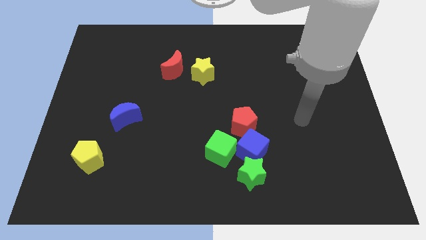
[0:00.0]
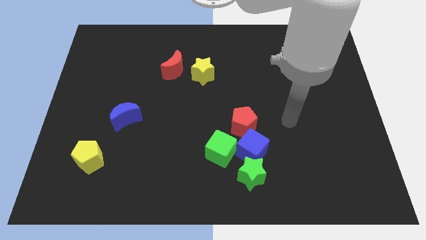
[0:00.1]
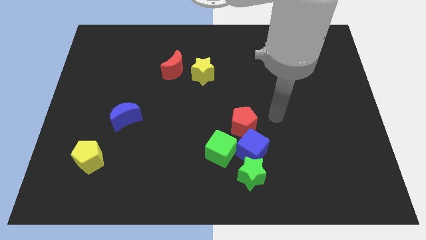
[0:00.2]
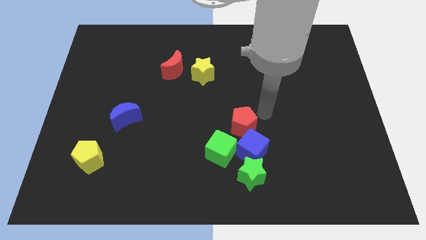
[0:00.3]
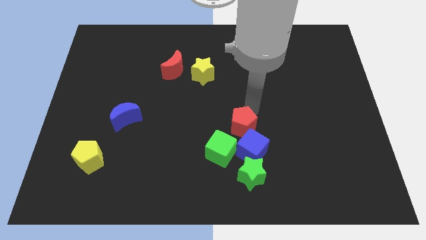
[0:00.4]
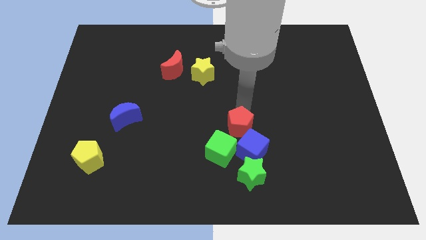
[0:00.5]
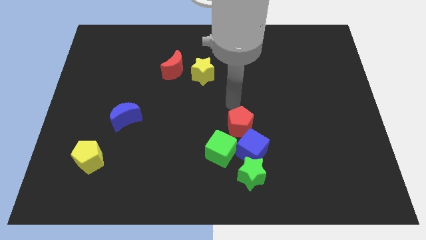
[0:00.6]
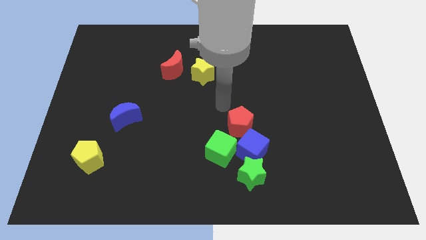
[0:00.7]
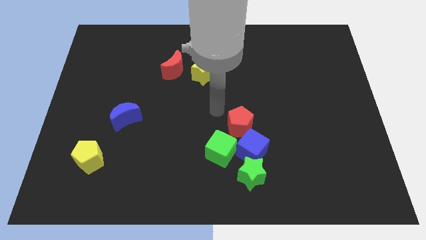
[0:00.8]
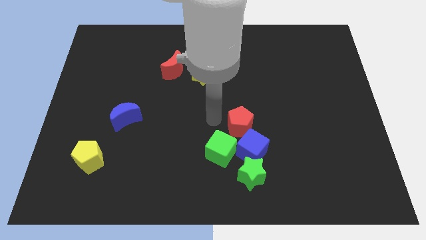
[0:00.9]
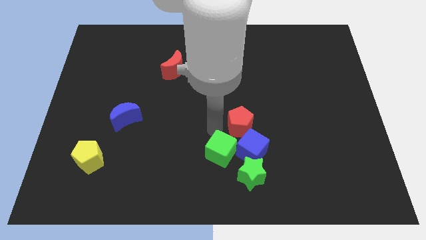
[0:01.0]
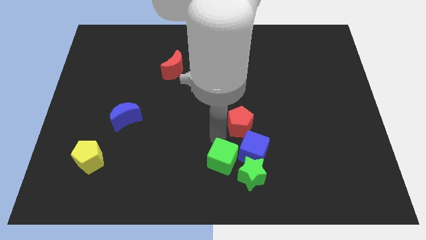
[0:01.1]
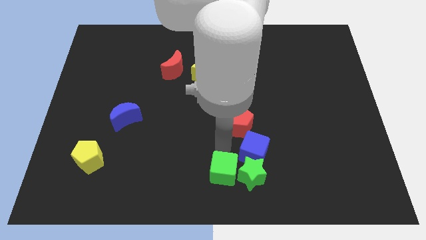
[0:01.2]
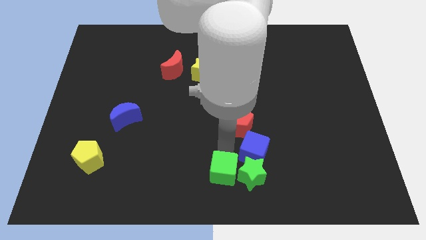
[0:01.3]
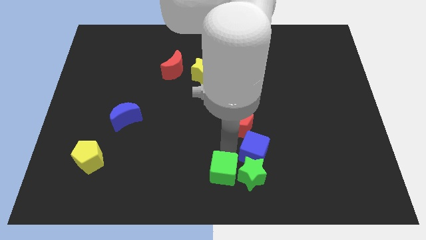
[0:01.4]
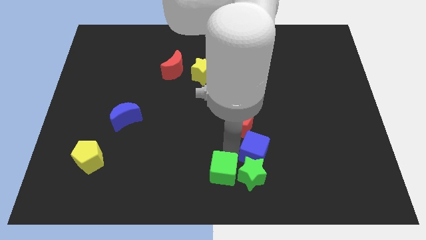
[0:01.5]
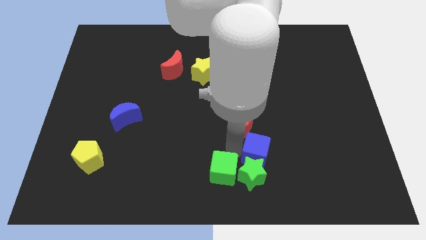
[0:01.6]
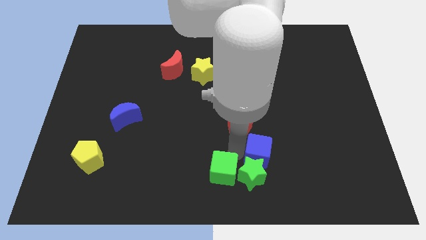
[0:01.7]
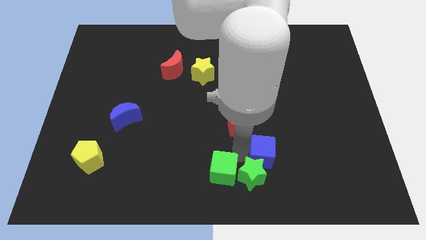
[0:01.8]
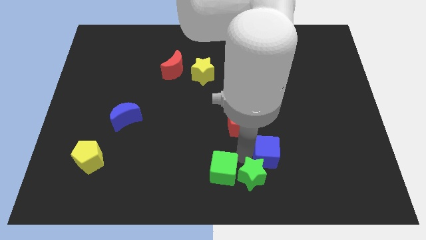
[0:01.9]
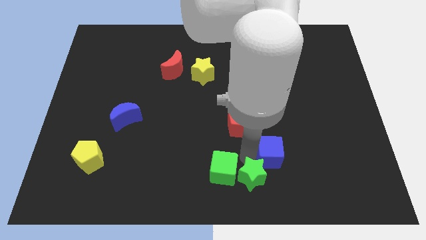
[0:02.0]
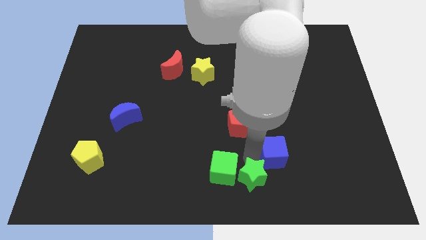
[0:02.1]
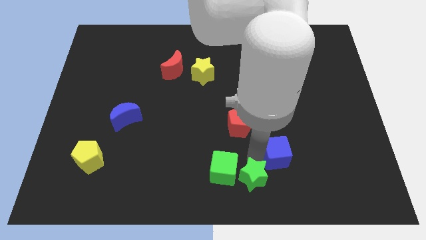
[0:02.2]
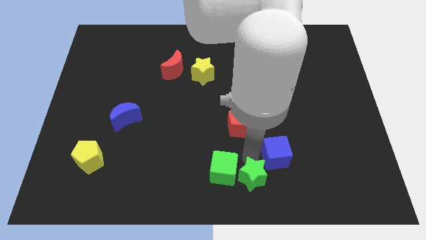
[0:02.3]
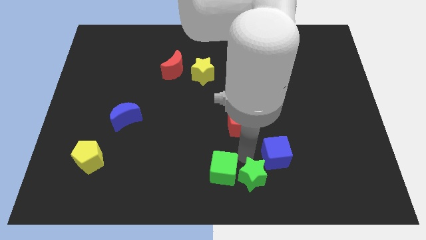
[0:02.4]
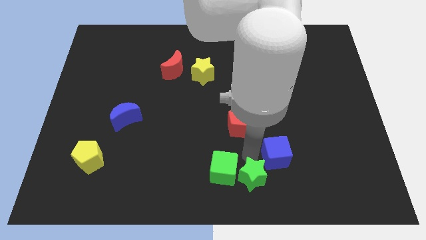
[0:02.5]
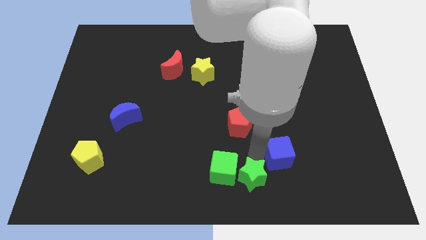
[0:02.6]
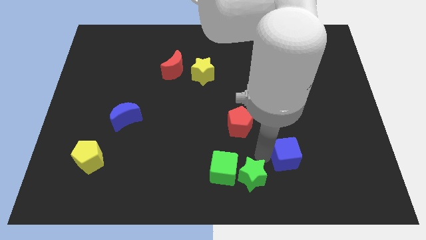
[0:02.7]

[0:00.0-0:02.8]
separate the blue cube from the clump

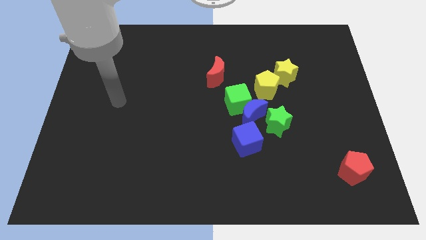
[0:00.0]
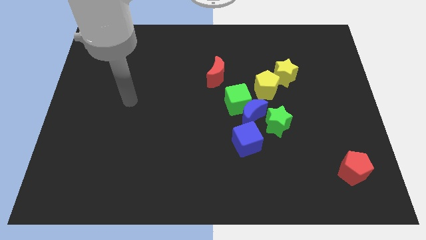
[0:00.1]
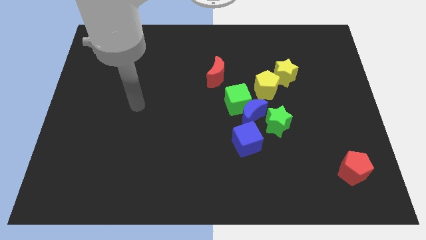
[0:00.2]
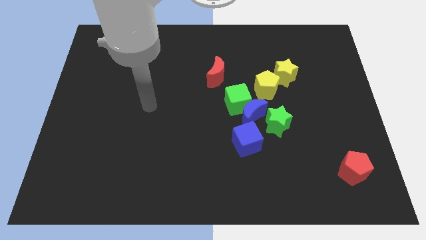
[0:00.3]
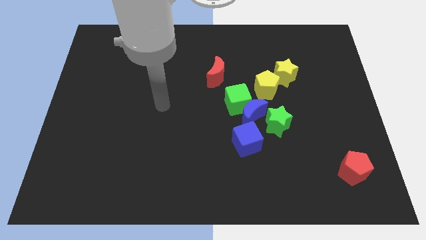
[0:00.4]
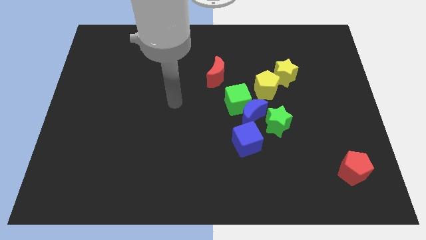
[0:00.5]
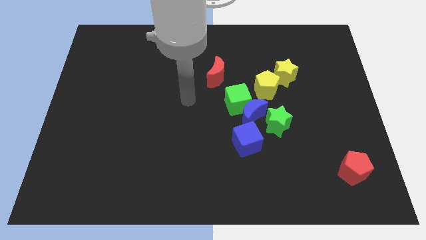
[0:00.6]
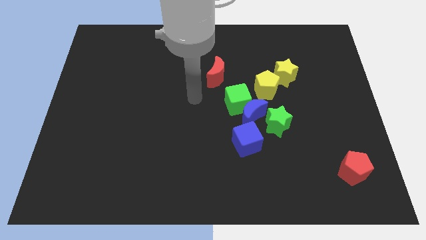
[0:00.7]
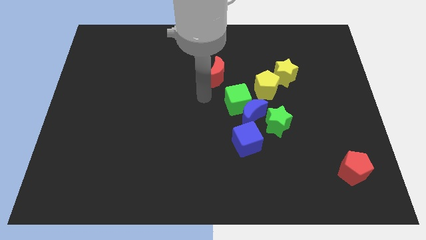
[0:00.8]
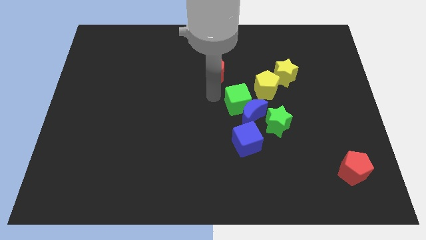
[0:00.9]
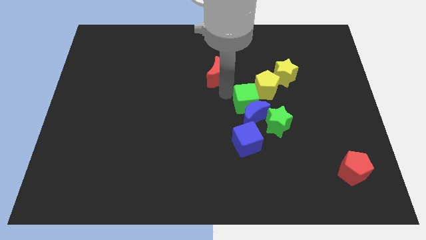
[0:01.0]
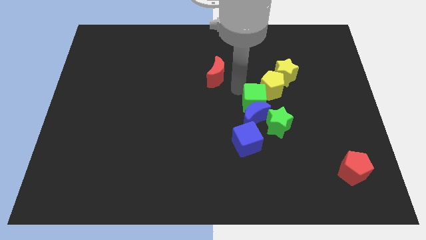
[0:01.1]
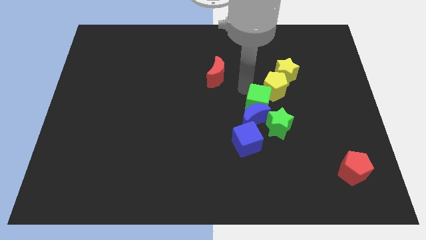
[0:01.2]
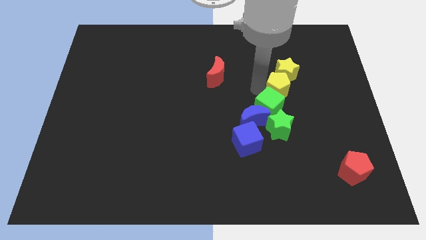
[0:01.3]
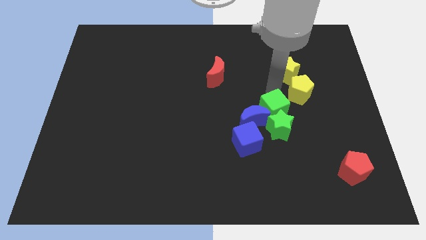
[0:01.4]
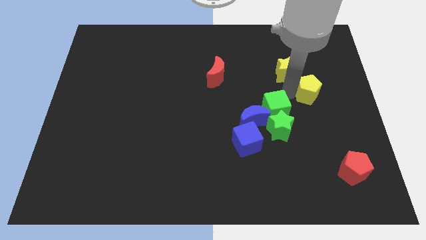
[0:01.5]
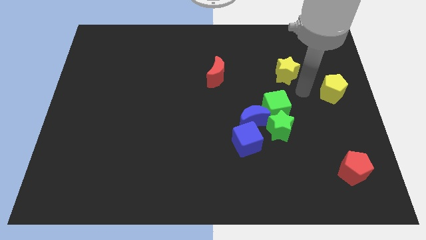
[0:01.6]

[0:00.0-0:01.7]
move the yellow star away from the yellow pentagon

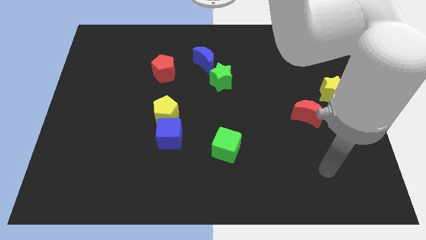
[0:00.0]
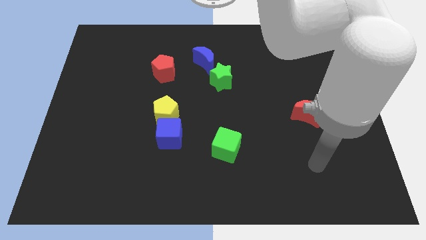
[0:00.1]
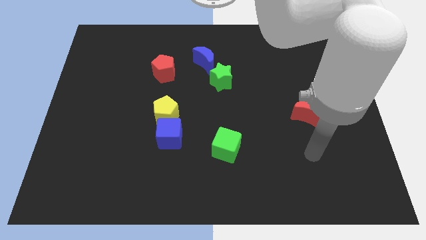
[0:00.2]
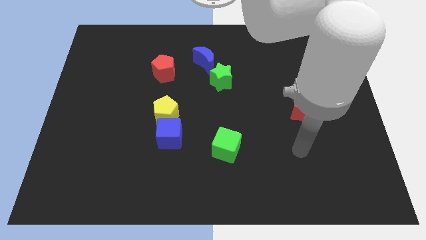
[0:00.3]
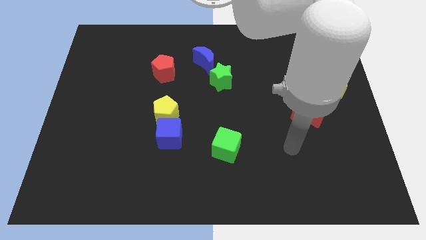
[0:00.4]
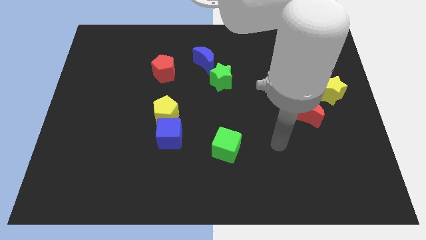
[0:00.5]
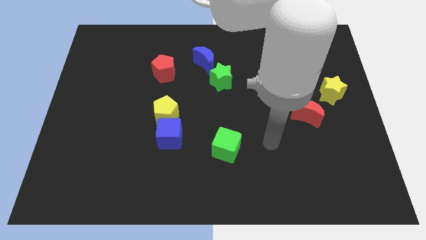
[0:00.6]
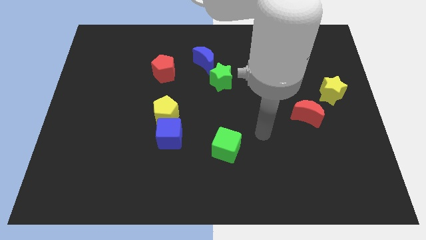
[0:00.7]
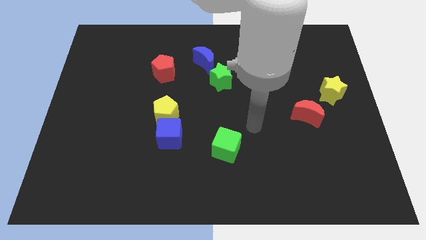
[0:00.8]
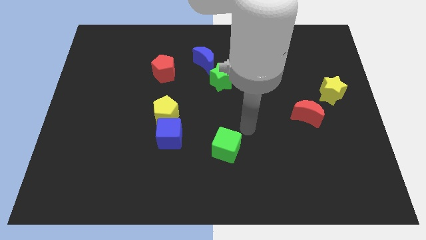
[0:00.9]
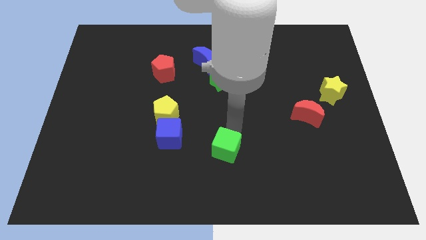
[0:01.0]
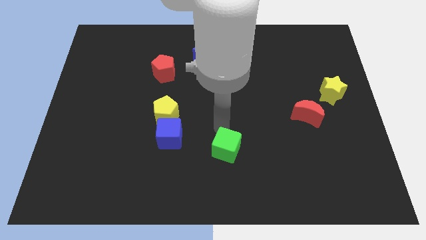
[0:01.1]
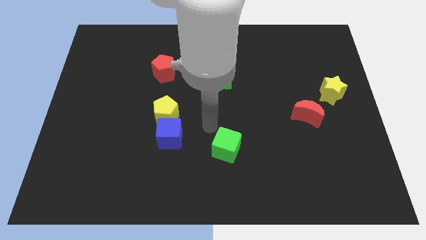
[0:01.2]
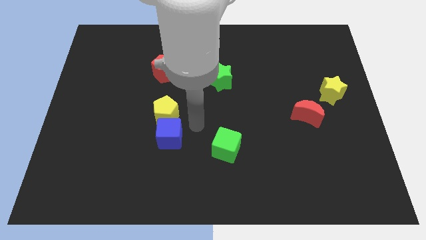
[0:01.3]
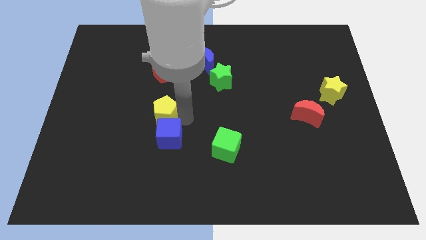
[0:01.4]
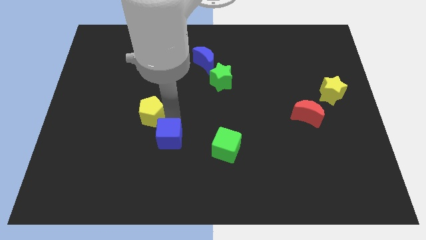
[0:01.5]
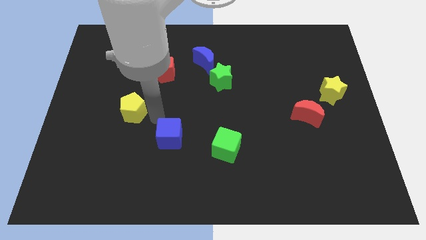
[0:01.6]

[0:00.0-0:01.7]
move the blue cube away from the yellow pentagon

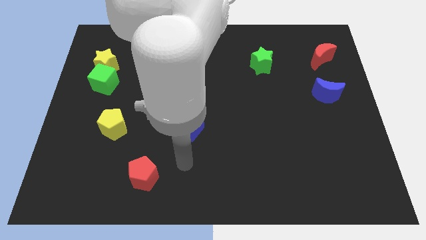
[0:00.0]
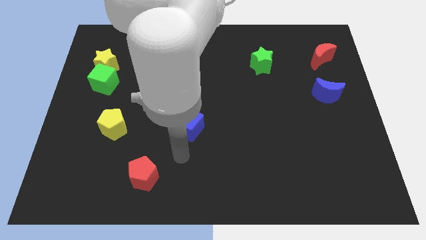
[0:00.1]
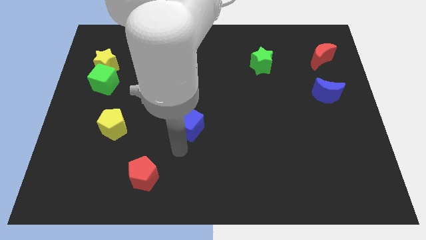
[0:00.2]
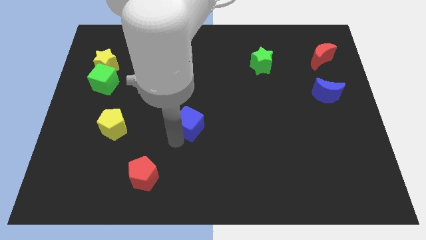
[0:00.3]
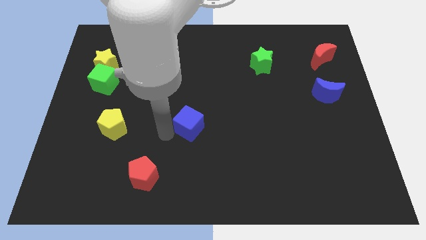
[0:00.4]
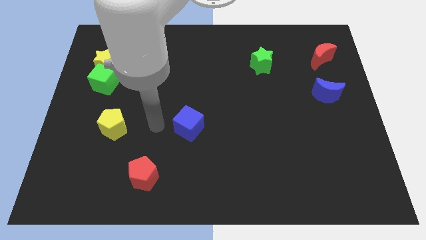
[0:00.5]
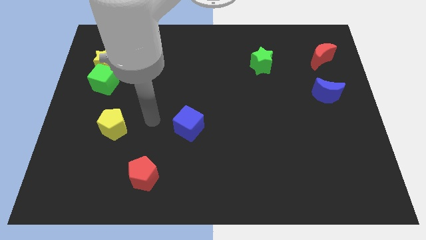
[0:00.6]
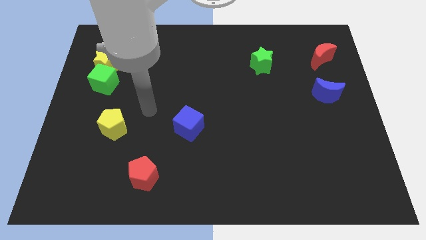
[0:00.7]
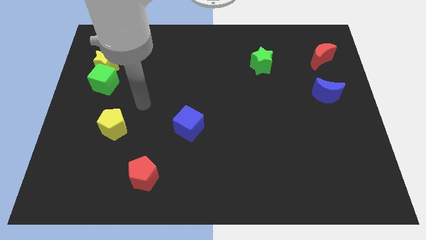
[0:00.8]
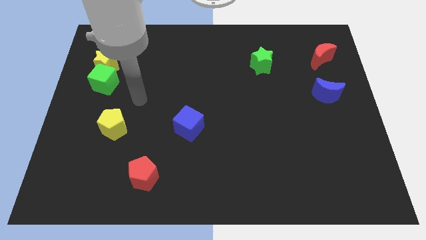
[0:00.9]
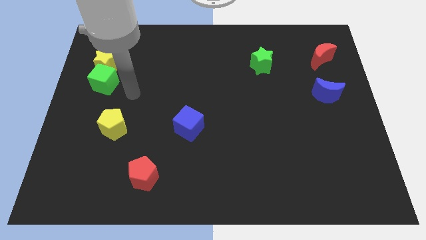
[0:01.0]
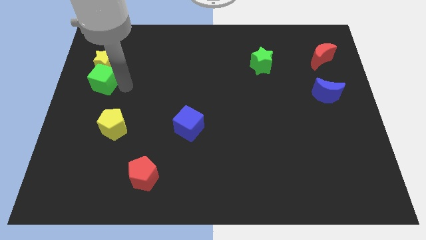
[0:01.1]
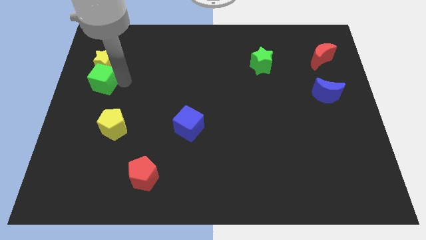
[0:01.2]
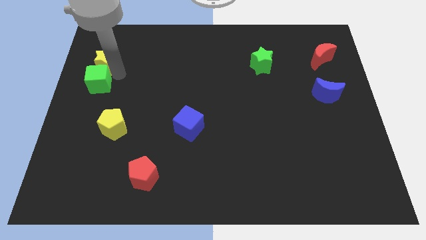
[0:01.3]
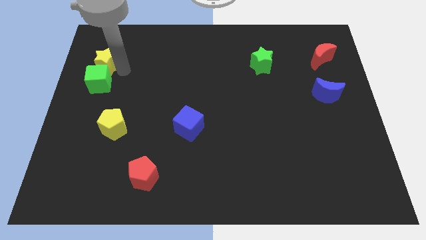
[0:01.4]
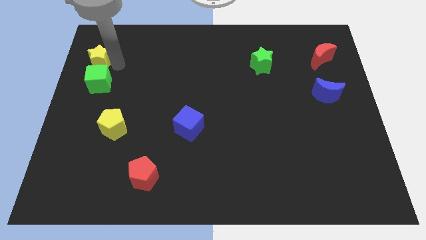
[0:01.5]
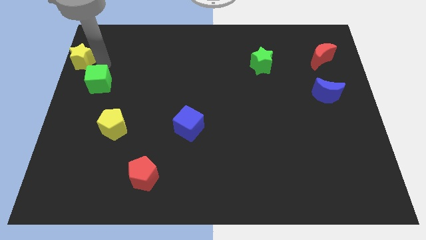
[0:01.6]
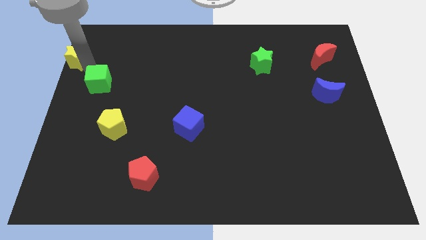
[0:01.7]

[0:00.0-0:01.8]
pull the green cube apart from the yellow star

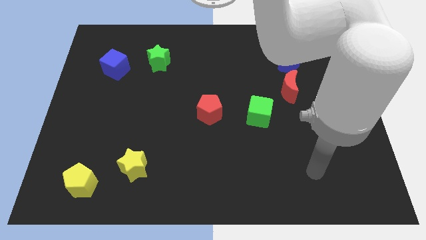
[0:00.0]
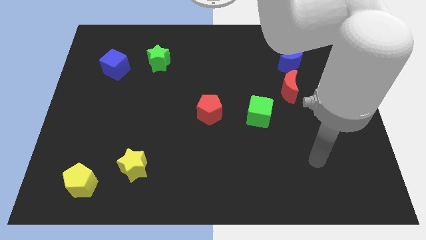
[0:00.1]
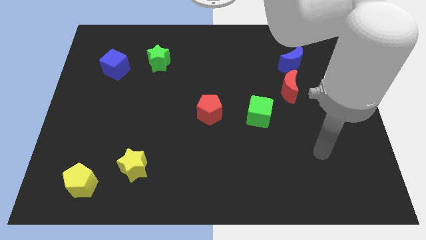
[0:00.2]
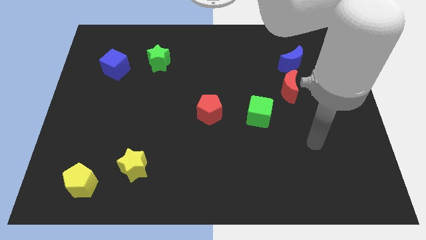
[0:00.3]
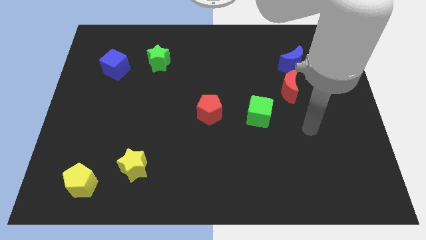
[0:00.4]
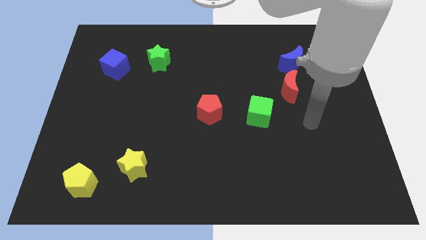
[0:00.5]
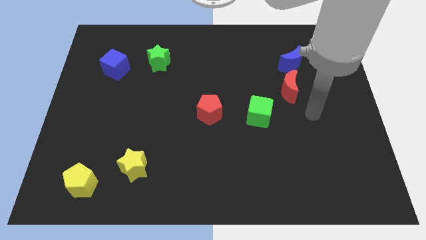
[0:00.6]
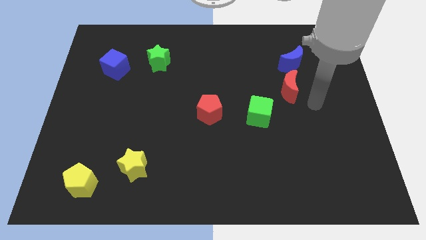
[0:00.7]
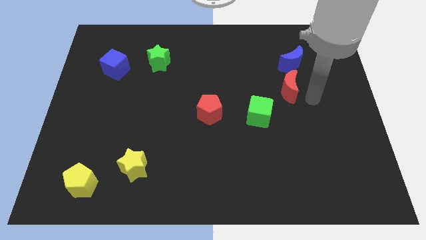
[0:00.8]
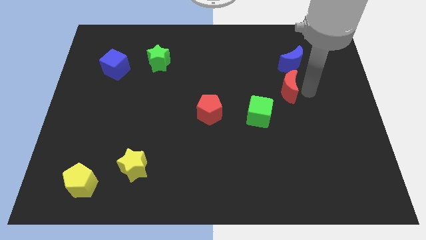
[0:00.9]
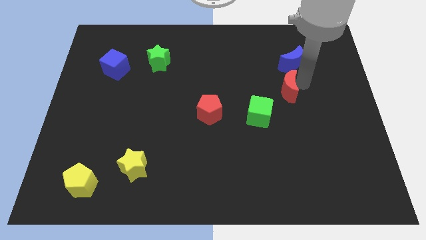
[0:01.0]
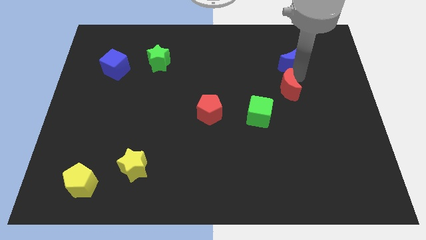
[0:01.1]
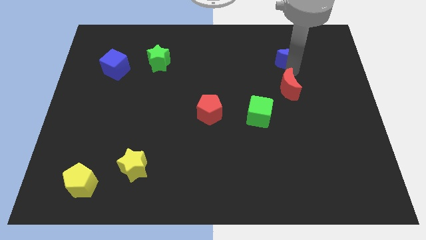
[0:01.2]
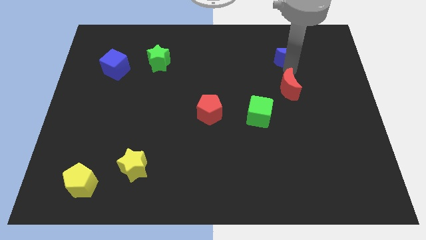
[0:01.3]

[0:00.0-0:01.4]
move the red moon away from the blue moon
